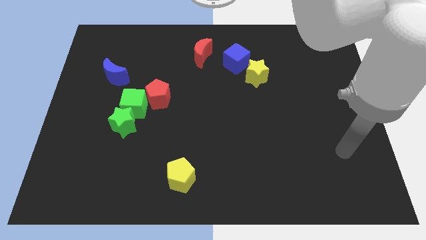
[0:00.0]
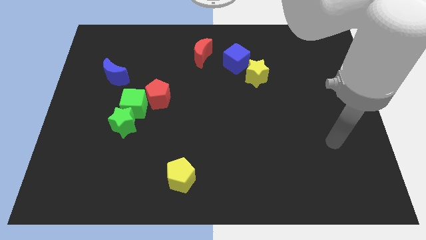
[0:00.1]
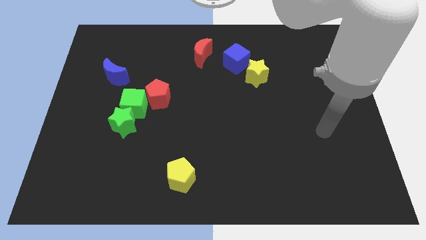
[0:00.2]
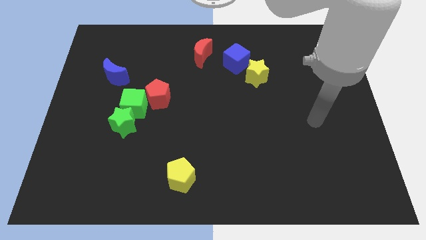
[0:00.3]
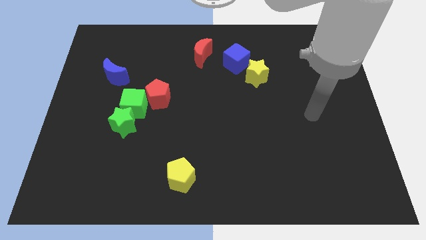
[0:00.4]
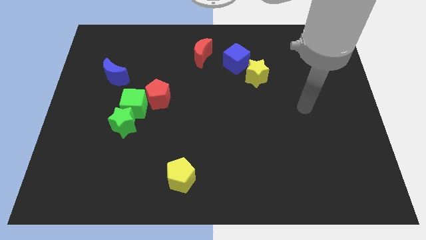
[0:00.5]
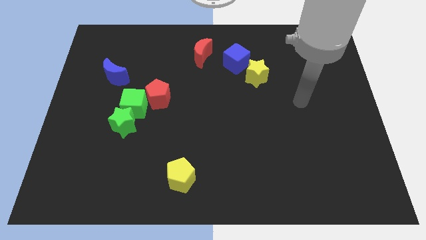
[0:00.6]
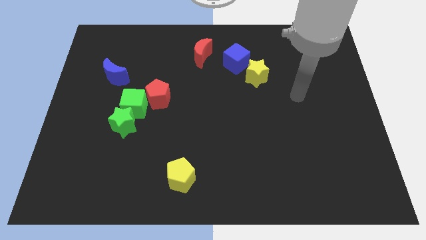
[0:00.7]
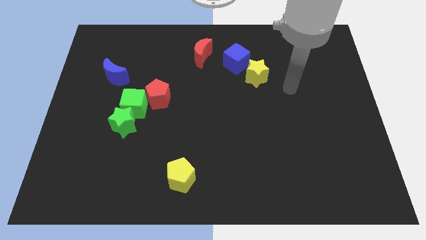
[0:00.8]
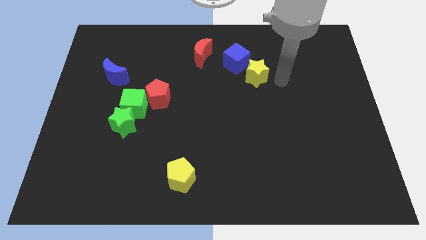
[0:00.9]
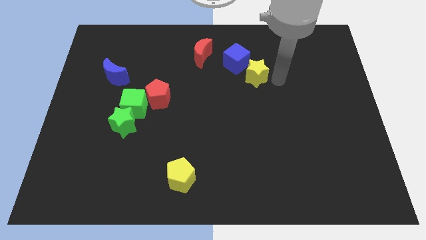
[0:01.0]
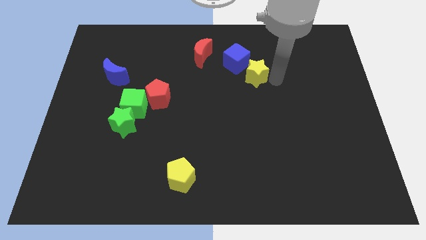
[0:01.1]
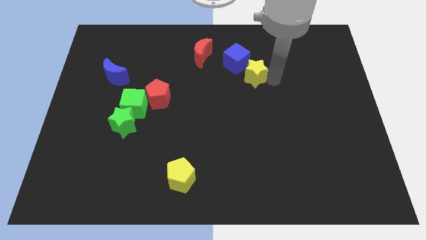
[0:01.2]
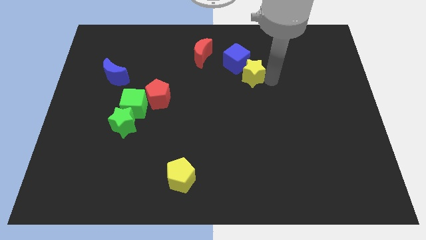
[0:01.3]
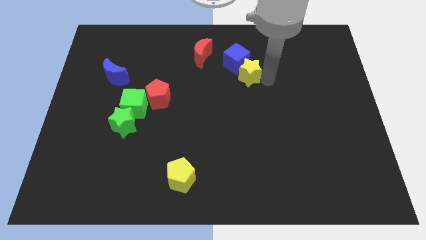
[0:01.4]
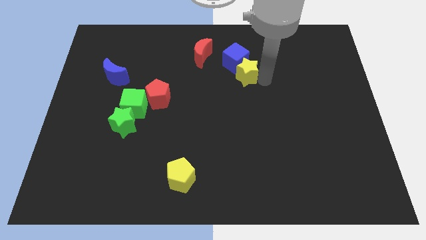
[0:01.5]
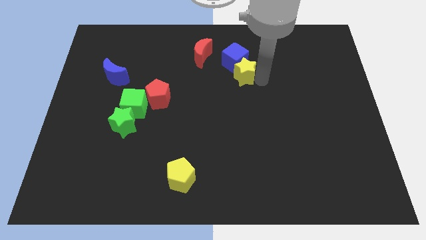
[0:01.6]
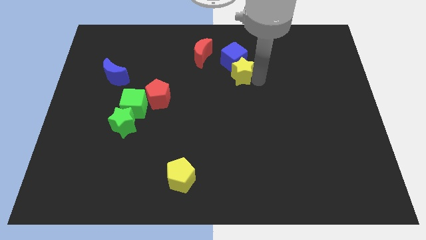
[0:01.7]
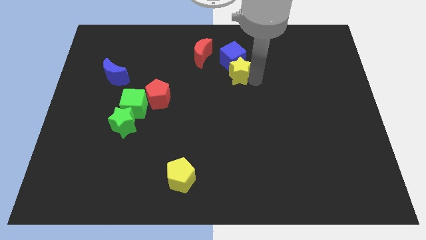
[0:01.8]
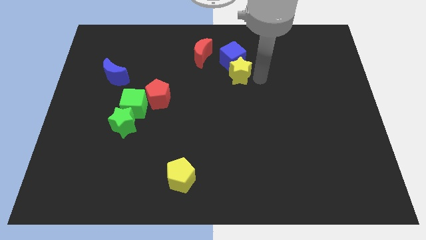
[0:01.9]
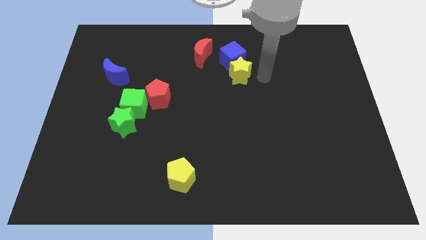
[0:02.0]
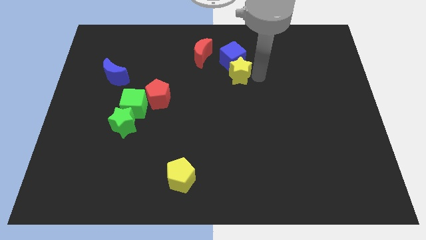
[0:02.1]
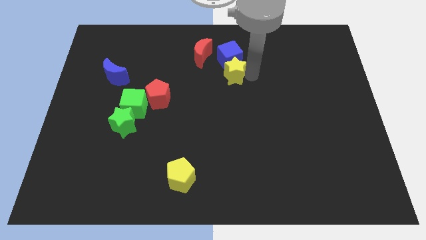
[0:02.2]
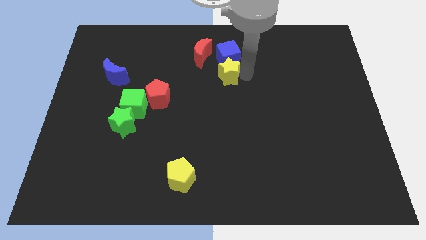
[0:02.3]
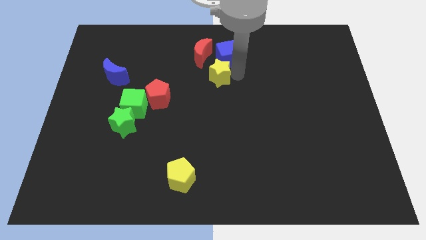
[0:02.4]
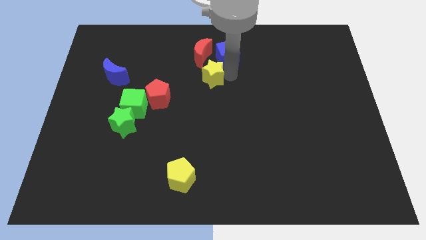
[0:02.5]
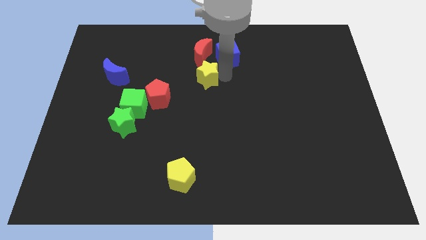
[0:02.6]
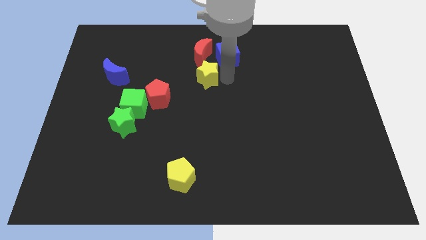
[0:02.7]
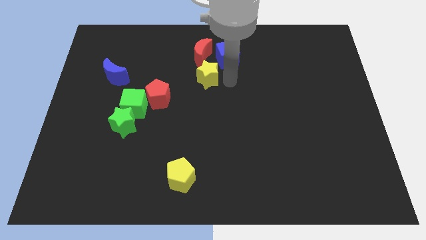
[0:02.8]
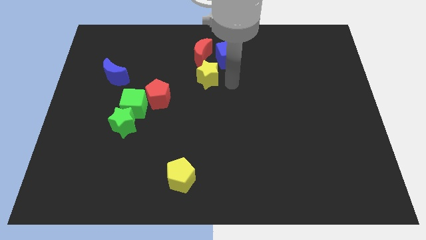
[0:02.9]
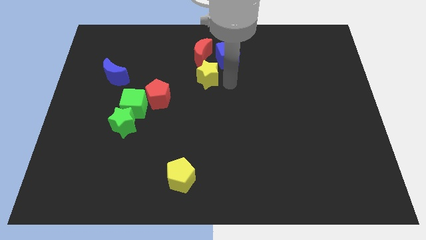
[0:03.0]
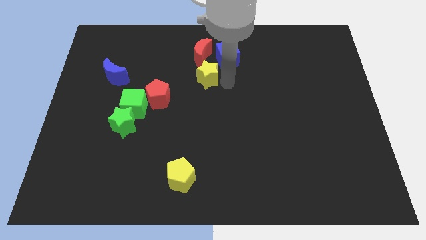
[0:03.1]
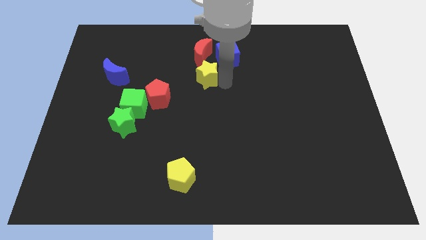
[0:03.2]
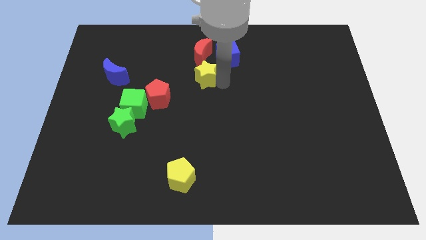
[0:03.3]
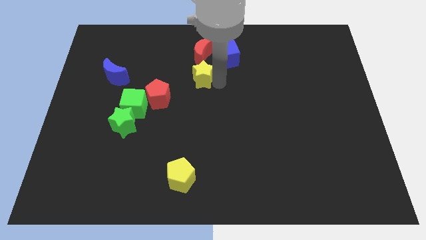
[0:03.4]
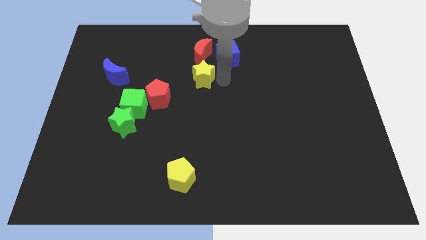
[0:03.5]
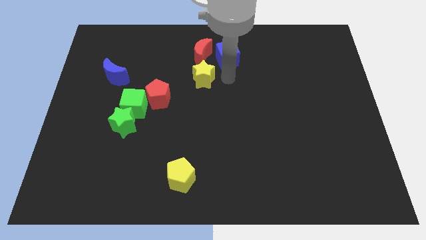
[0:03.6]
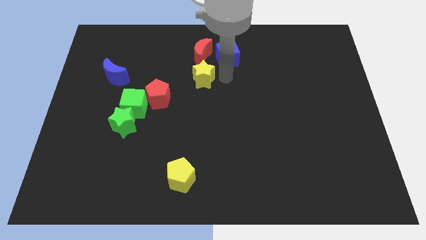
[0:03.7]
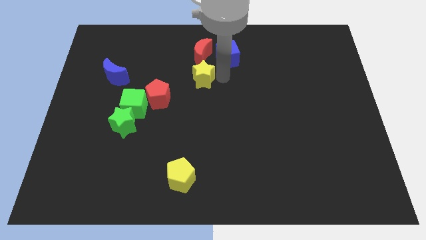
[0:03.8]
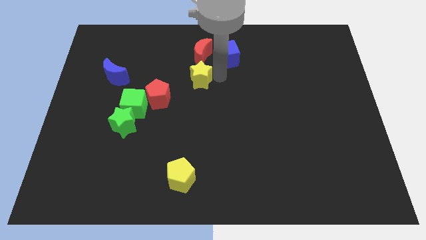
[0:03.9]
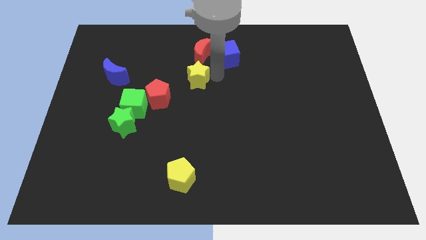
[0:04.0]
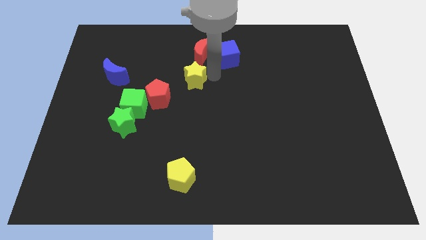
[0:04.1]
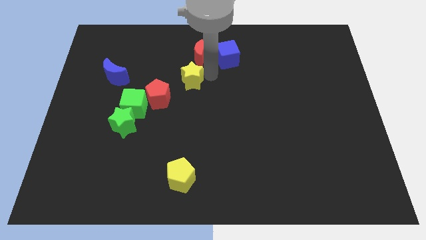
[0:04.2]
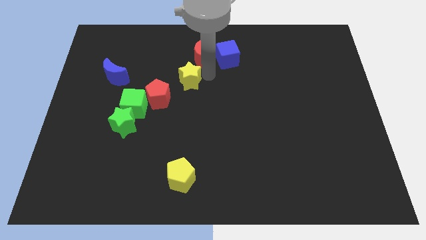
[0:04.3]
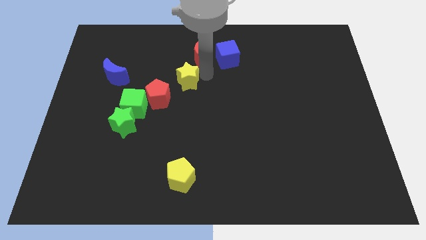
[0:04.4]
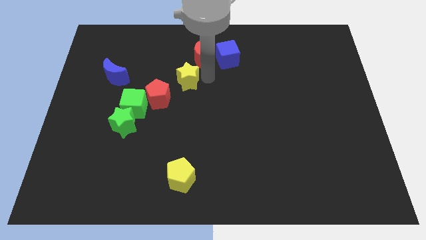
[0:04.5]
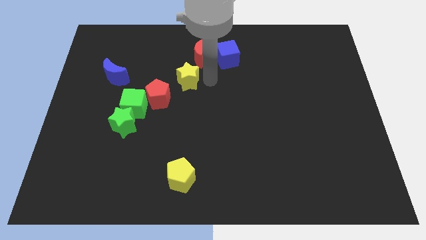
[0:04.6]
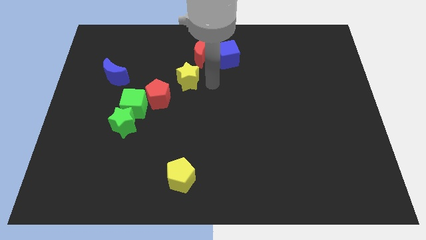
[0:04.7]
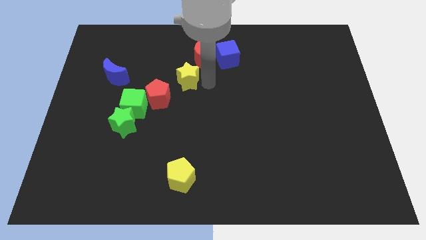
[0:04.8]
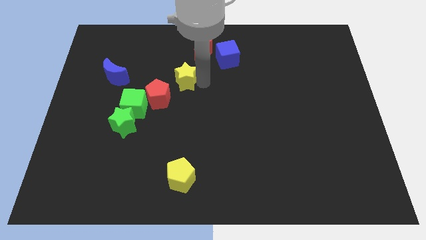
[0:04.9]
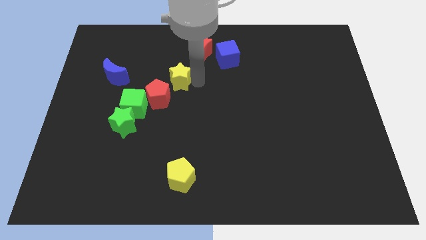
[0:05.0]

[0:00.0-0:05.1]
slide the yellow star right of the blue moon

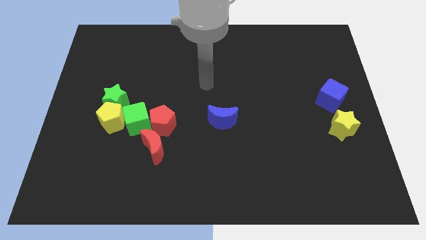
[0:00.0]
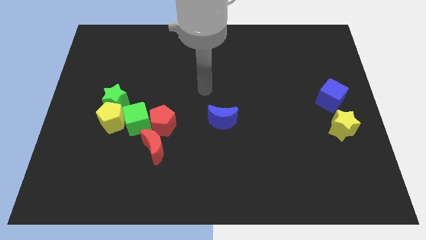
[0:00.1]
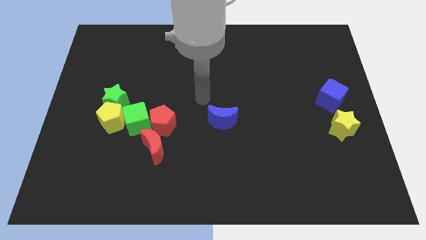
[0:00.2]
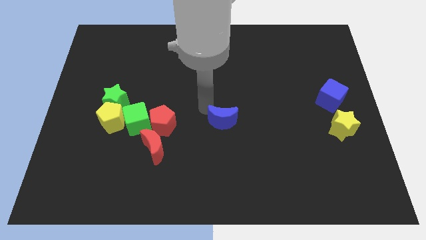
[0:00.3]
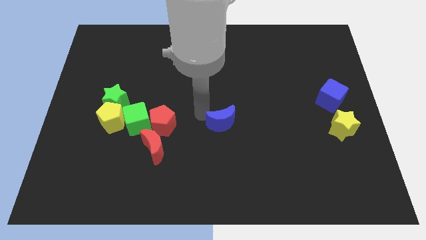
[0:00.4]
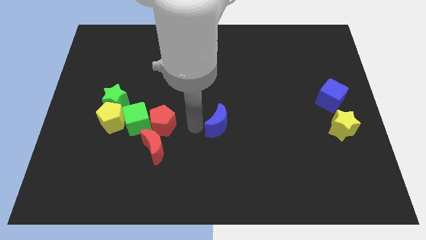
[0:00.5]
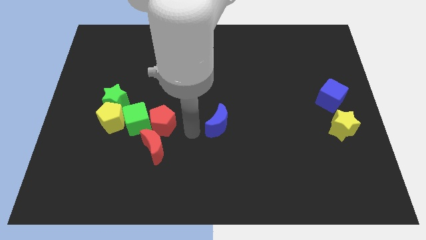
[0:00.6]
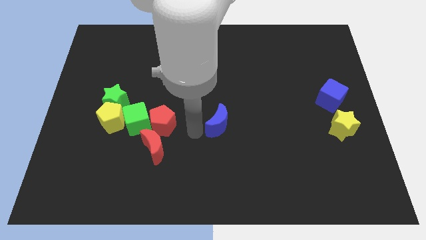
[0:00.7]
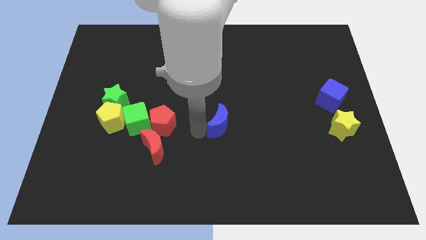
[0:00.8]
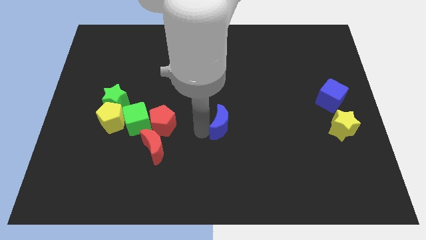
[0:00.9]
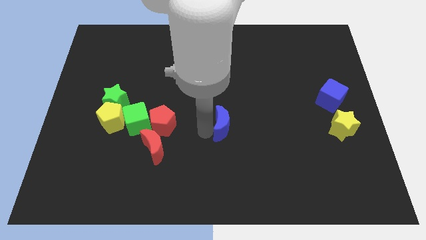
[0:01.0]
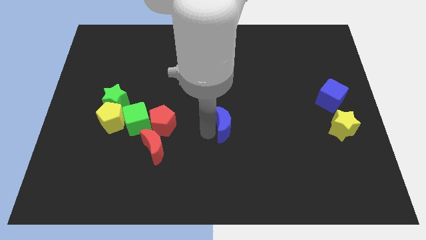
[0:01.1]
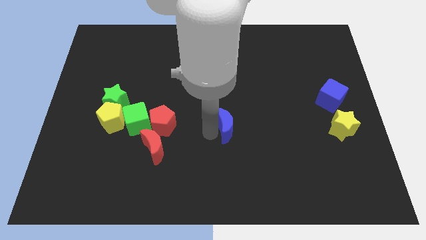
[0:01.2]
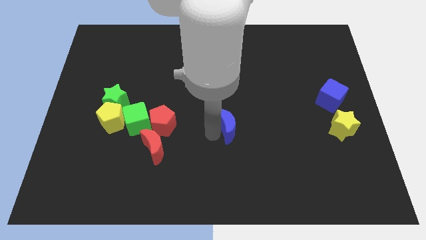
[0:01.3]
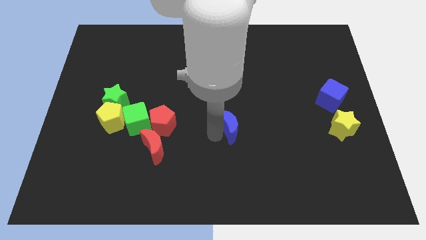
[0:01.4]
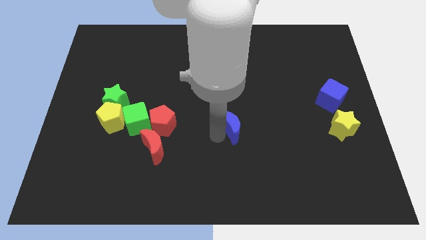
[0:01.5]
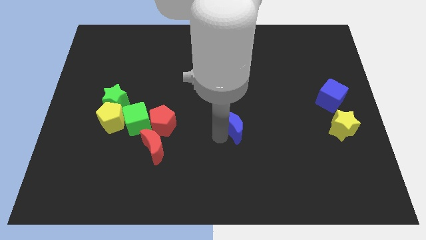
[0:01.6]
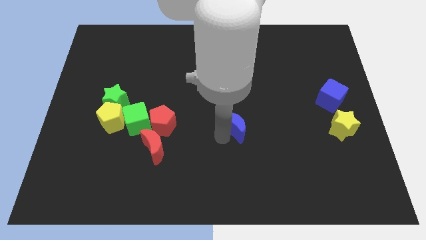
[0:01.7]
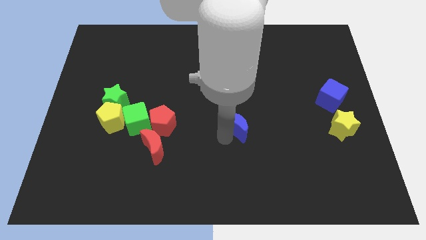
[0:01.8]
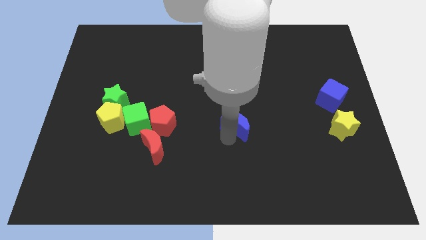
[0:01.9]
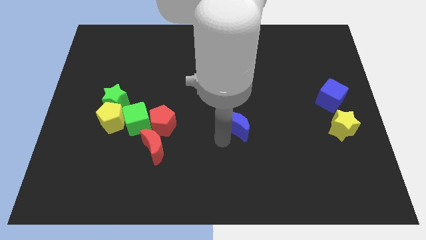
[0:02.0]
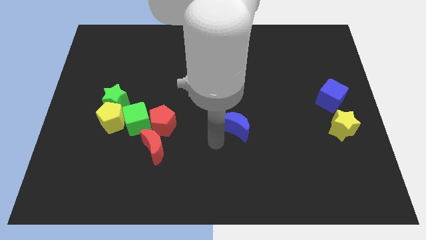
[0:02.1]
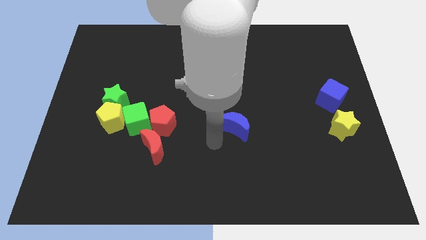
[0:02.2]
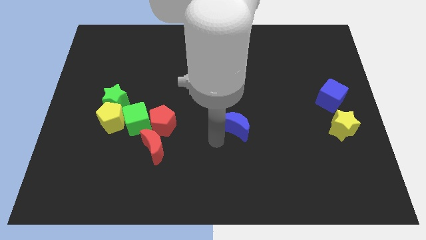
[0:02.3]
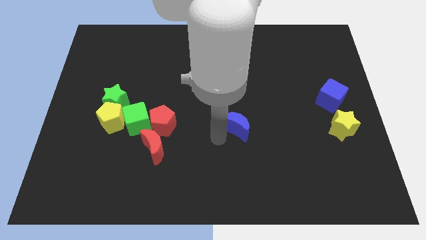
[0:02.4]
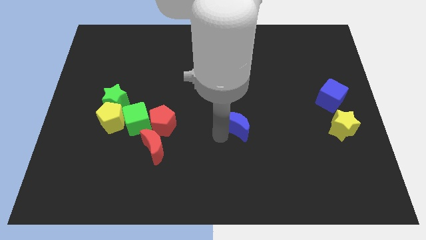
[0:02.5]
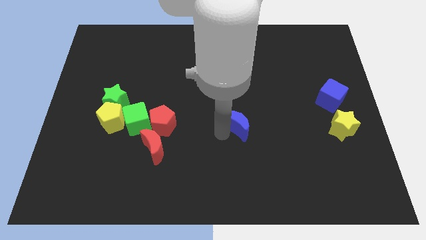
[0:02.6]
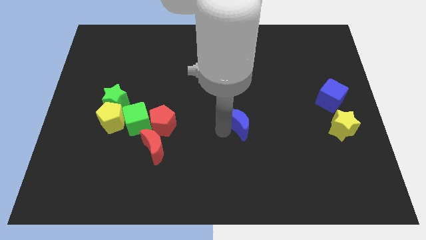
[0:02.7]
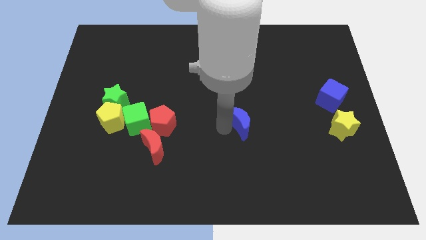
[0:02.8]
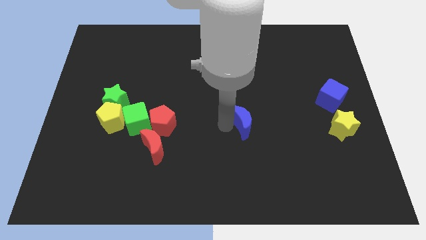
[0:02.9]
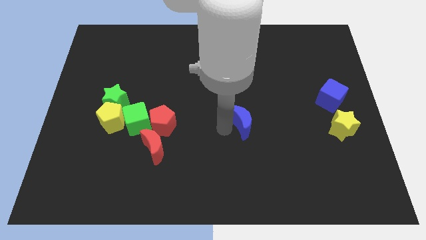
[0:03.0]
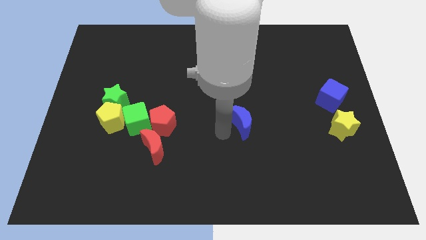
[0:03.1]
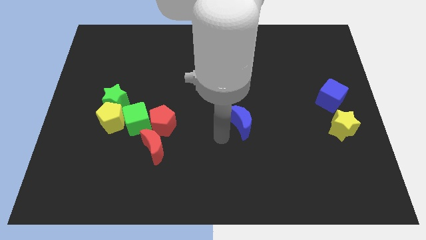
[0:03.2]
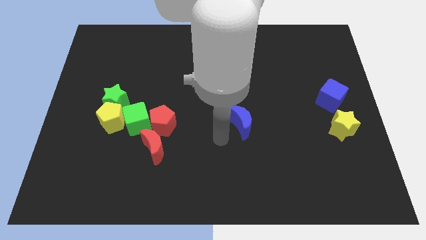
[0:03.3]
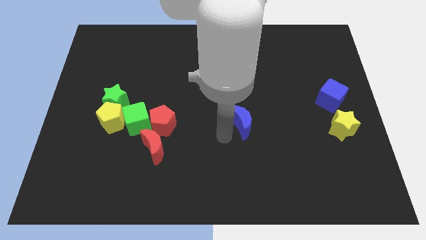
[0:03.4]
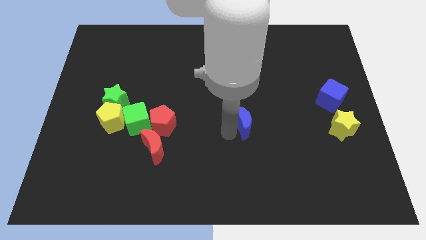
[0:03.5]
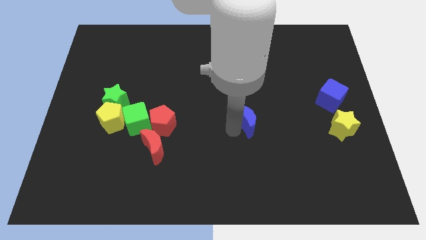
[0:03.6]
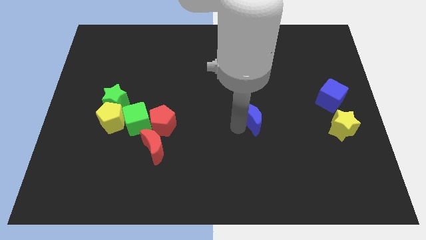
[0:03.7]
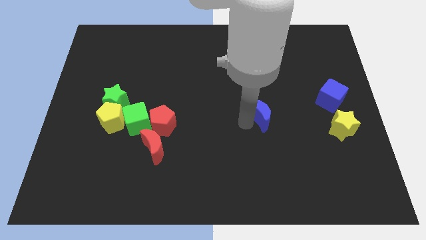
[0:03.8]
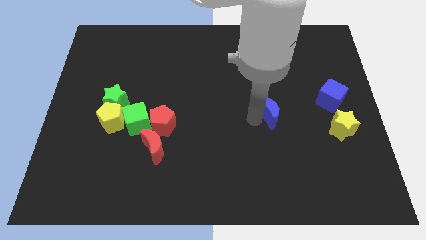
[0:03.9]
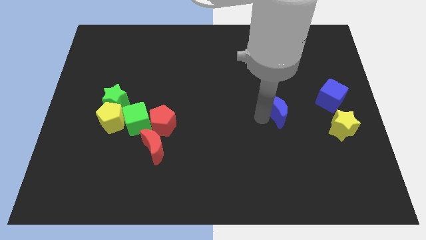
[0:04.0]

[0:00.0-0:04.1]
push the blue moon to the left side of the blue cube
